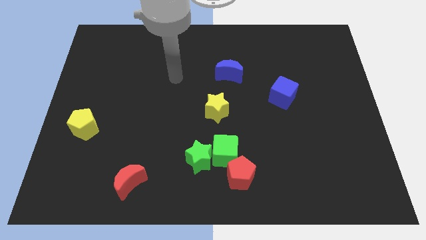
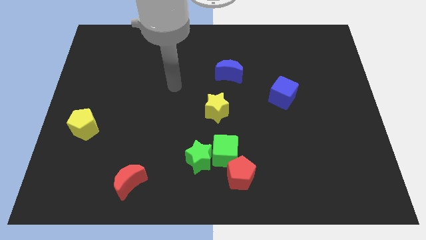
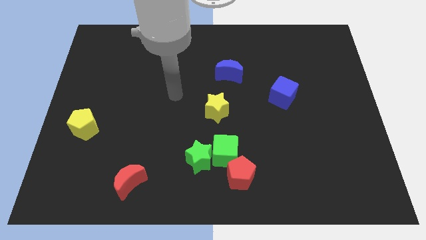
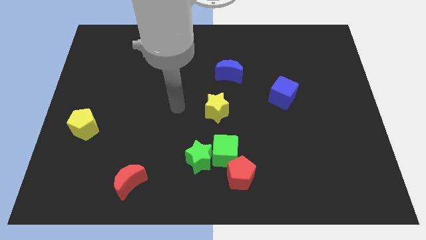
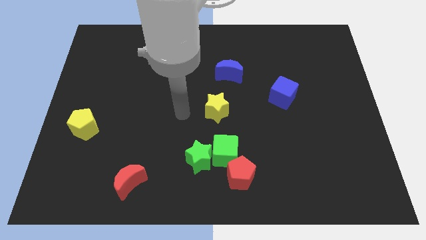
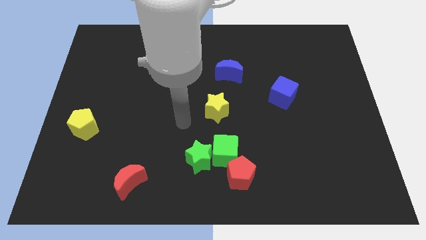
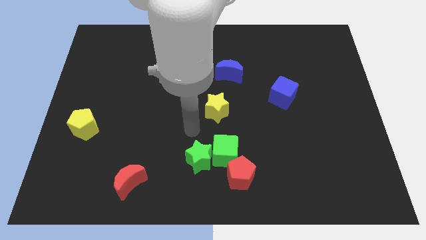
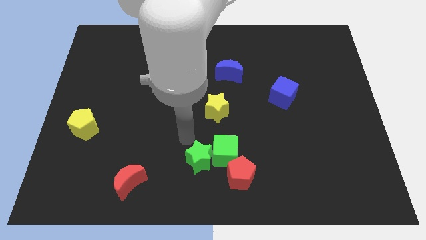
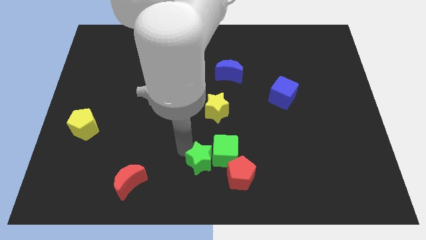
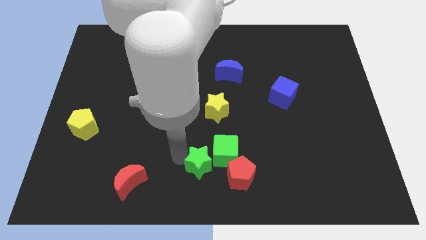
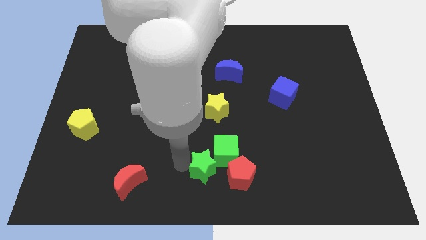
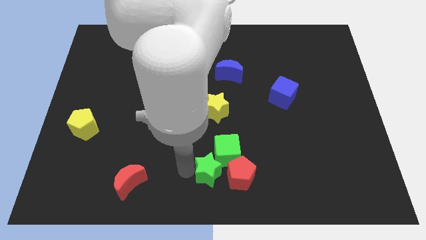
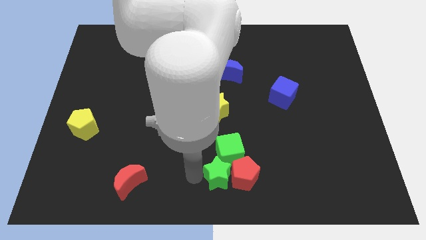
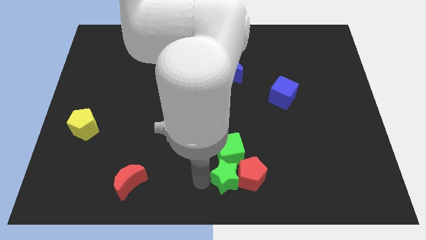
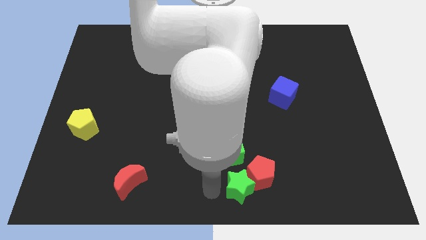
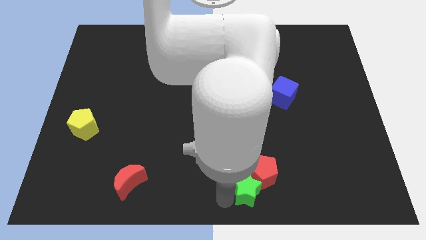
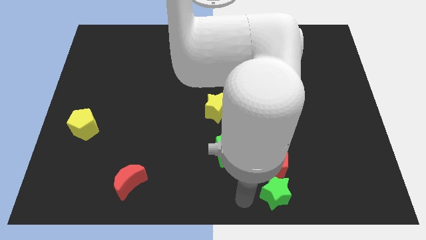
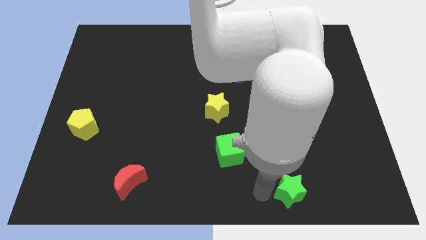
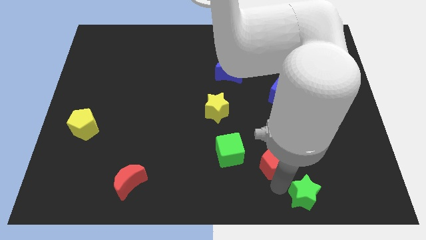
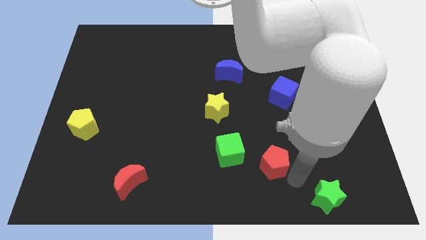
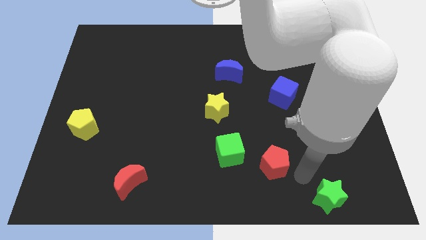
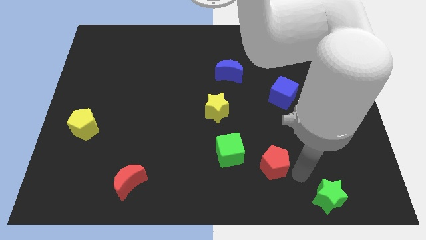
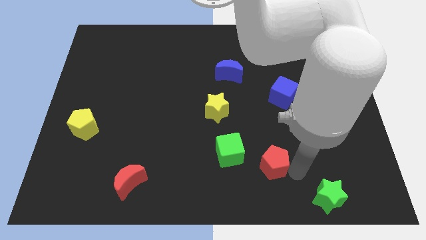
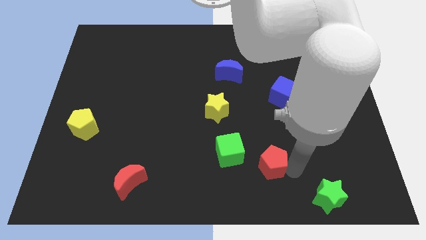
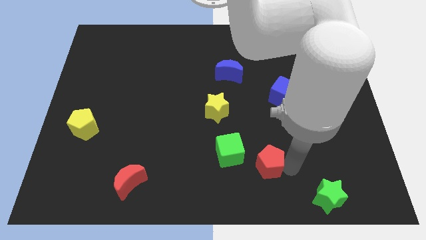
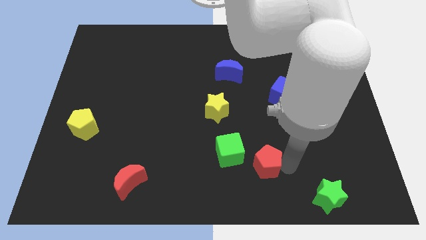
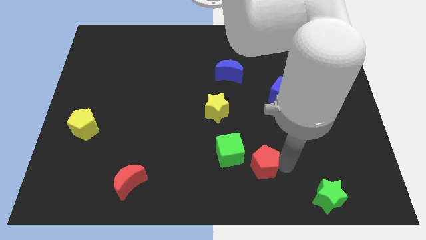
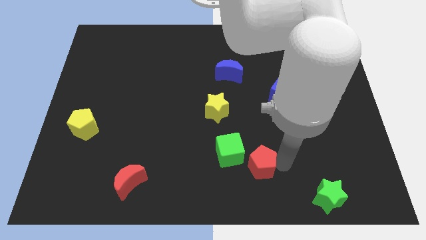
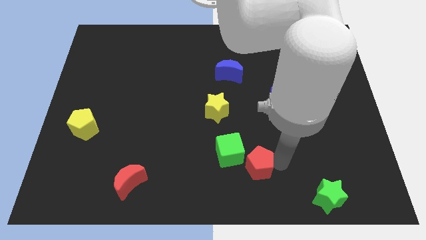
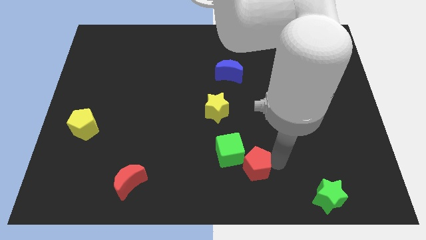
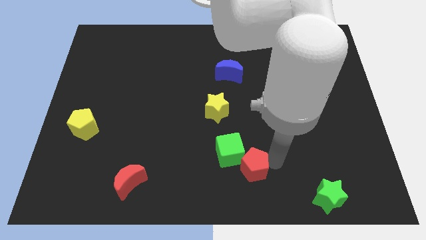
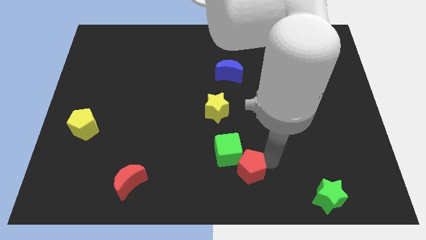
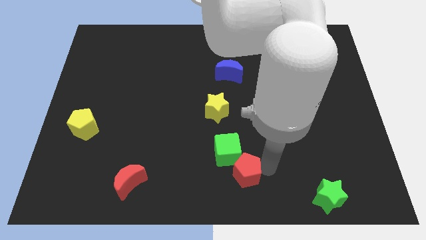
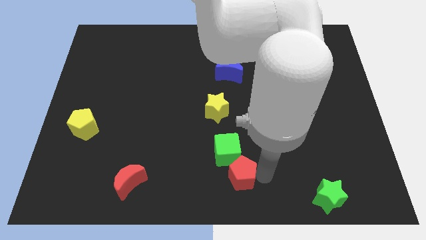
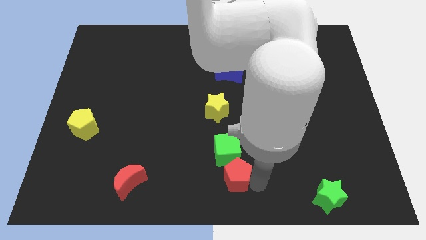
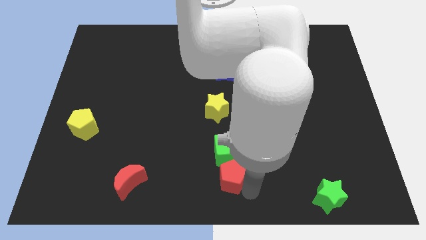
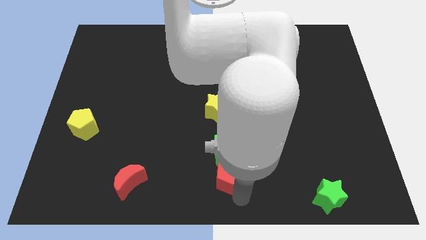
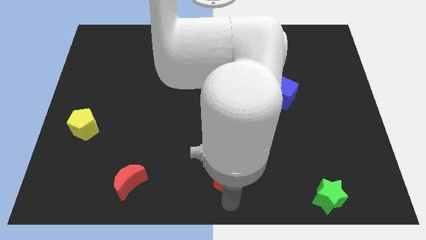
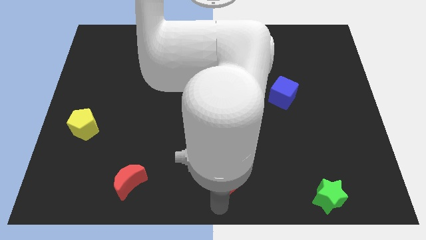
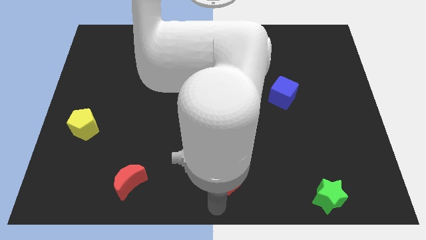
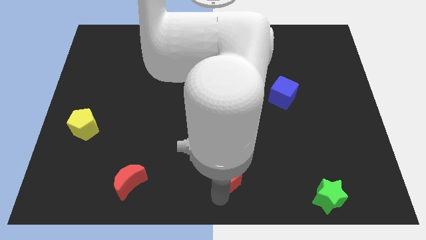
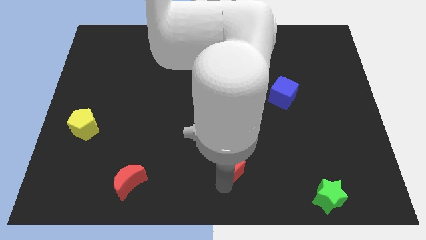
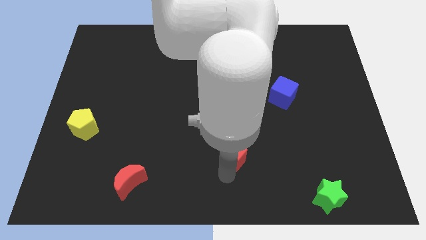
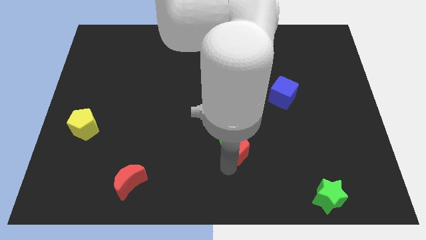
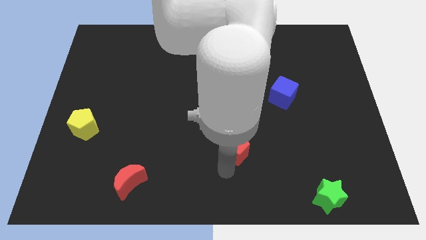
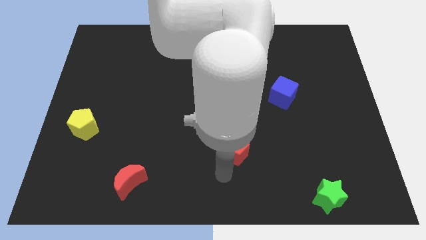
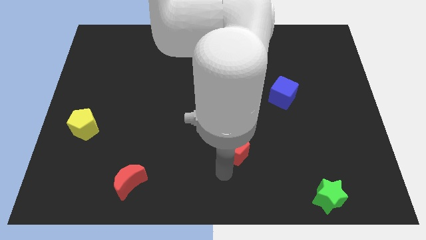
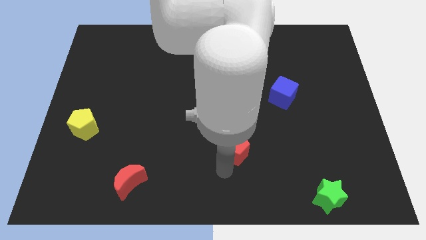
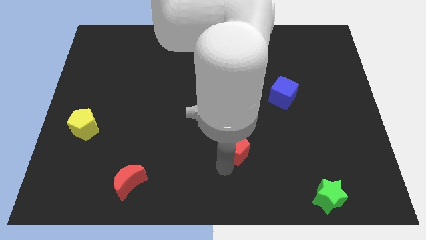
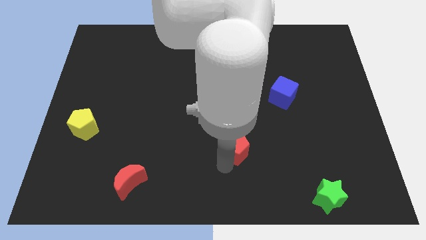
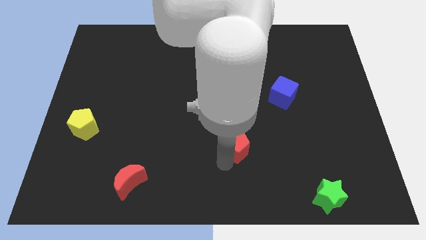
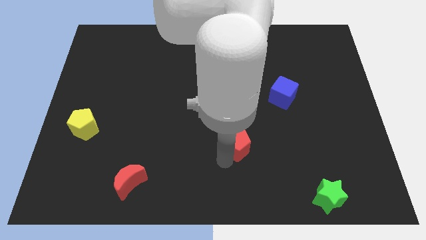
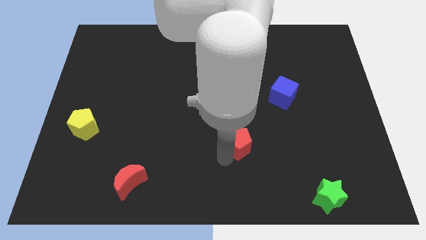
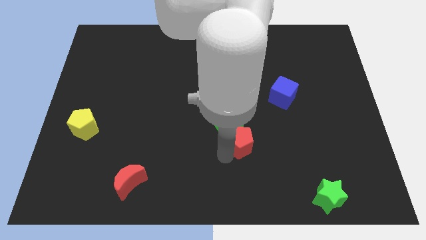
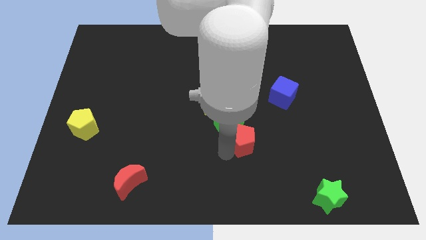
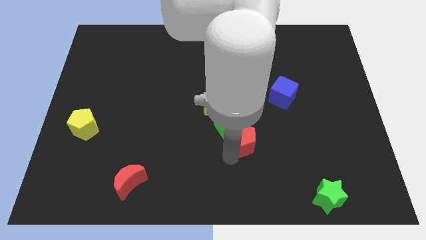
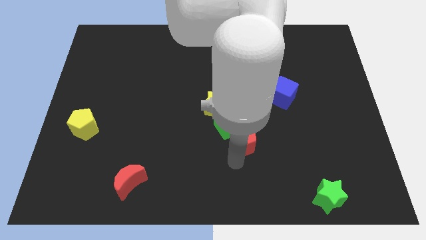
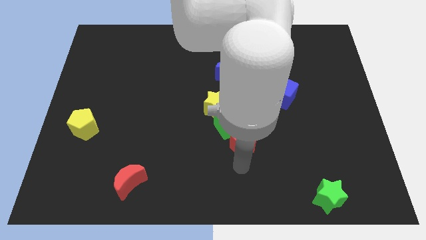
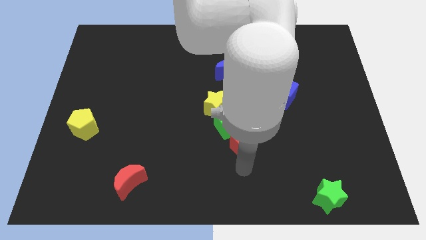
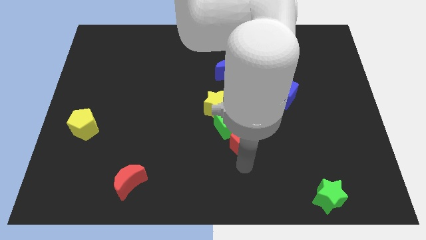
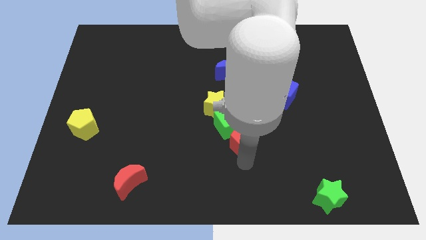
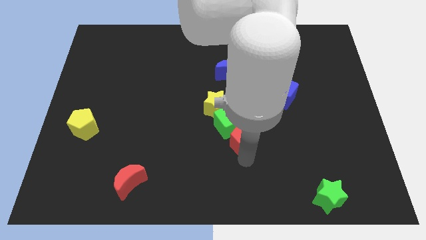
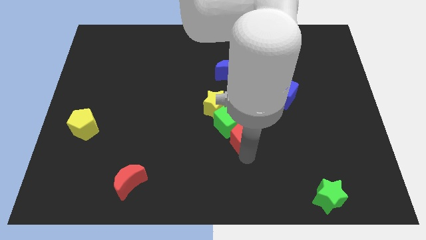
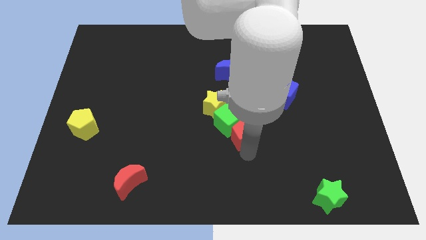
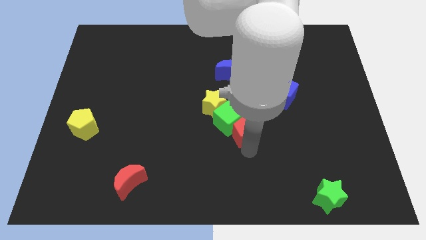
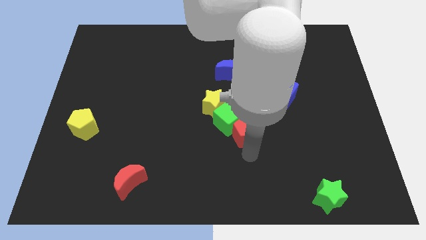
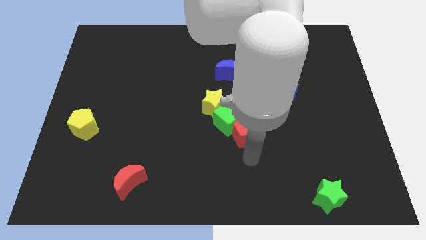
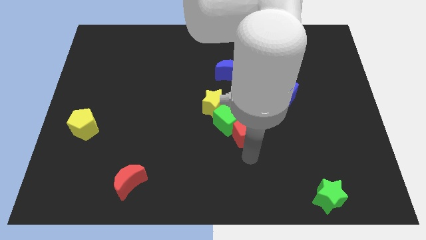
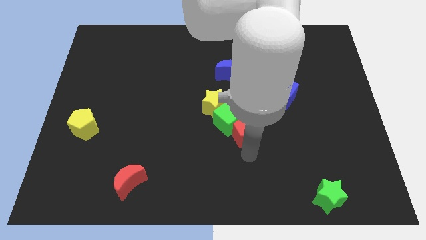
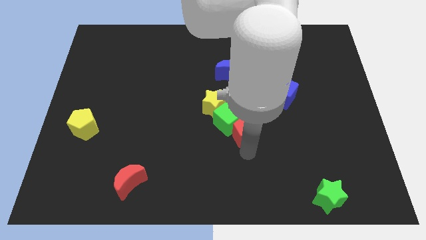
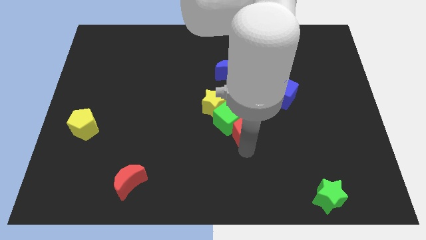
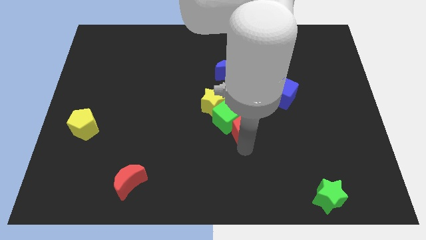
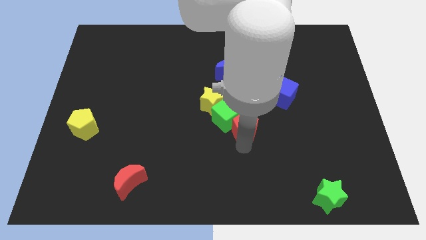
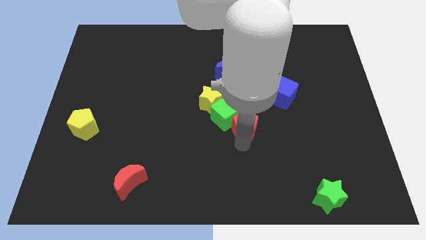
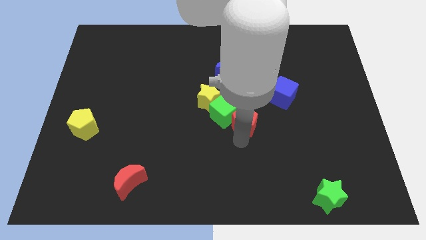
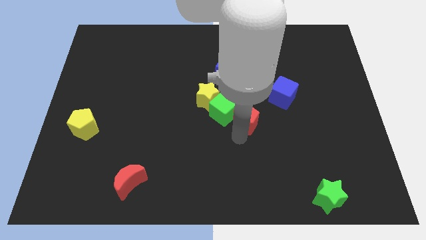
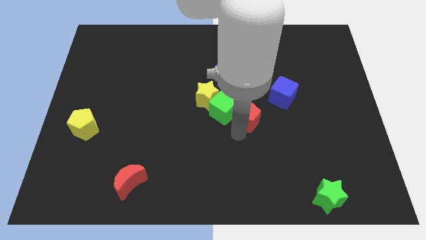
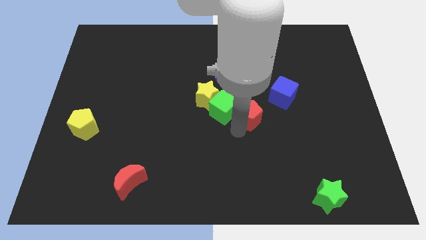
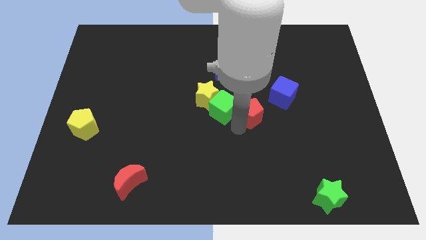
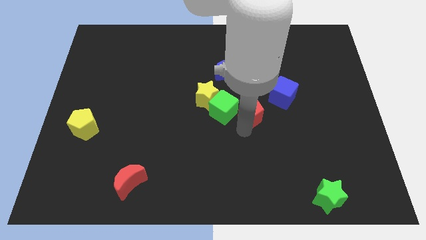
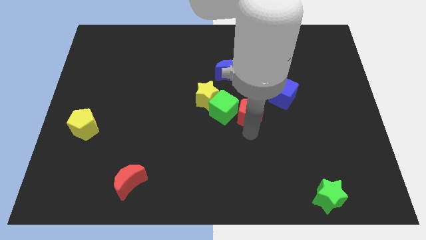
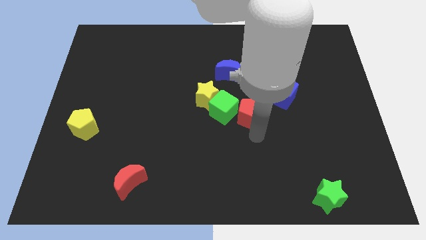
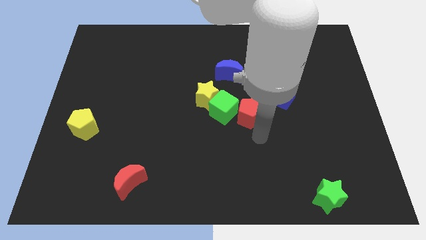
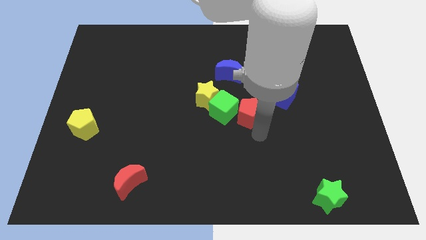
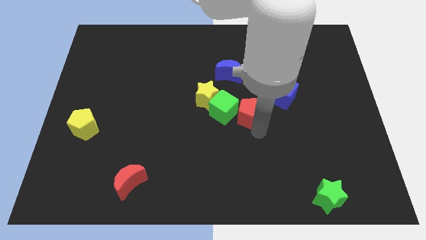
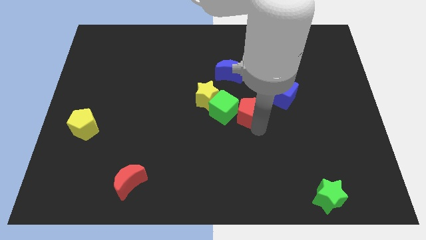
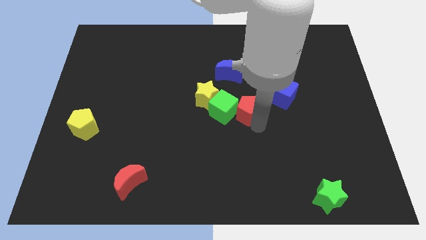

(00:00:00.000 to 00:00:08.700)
move the red pentagon just left of the blue cube
